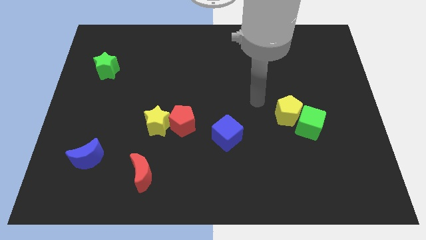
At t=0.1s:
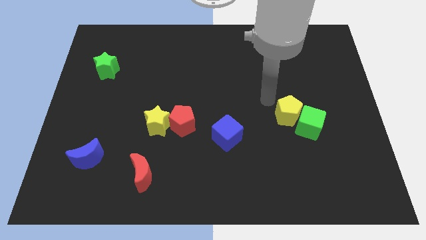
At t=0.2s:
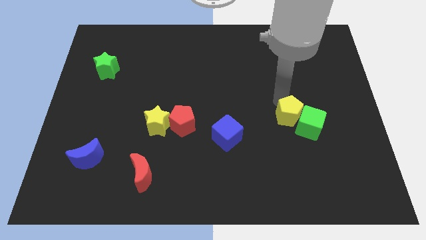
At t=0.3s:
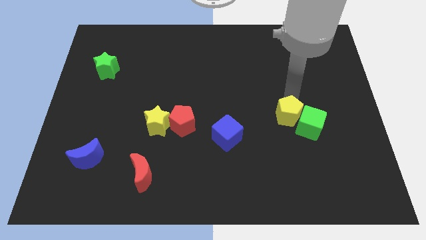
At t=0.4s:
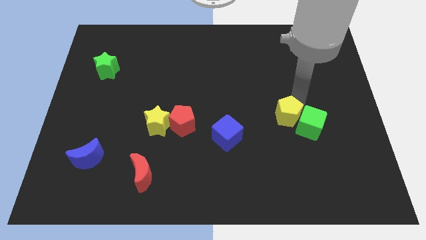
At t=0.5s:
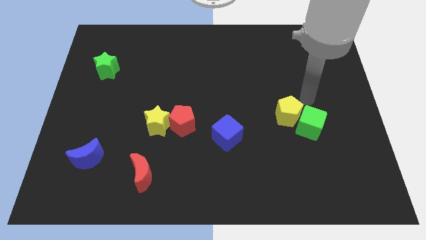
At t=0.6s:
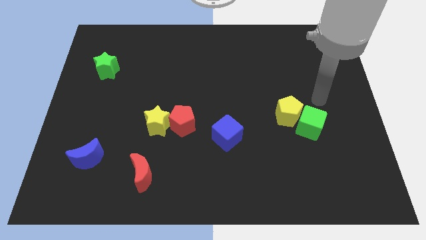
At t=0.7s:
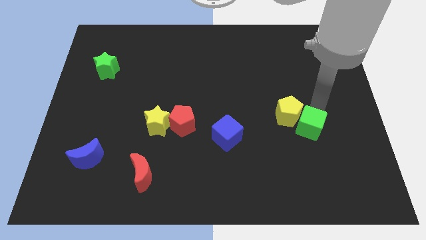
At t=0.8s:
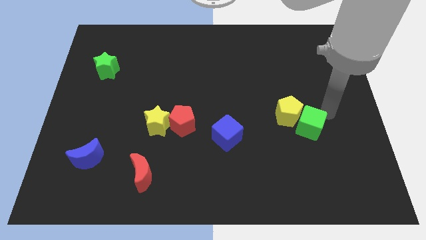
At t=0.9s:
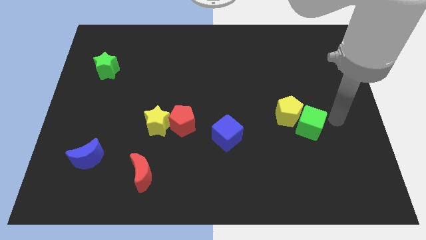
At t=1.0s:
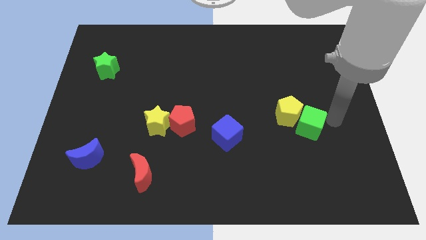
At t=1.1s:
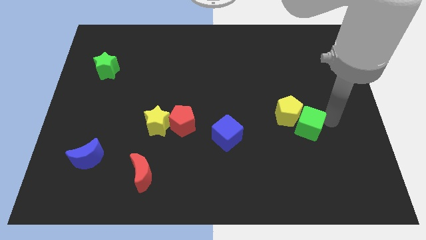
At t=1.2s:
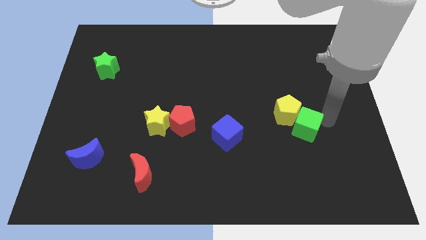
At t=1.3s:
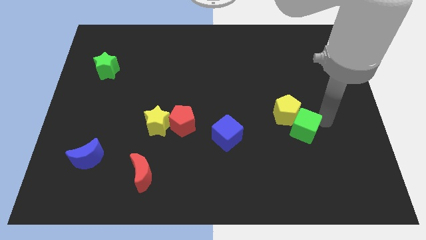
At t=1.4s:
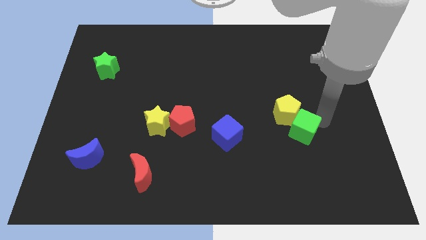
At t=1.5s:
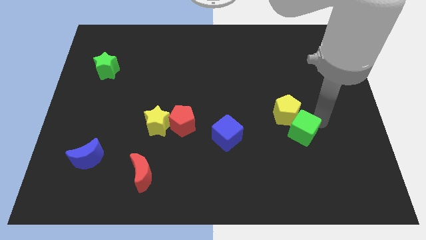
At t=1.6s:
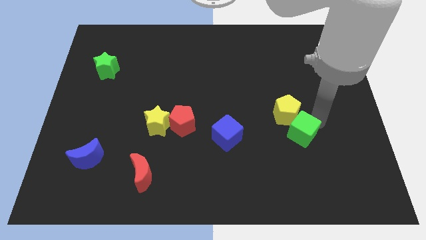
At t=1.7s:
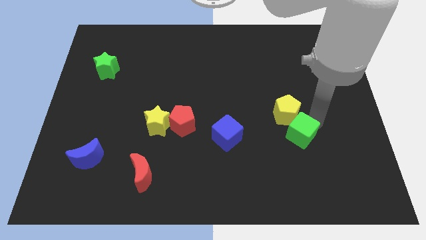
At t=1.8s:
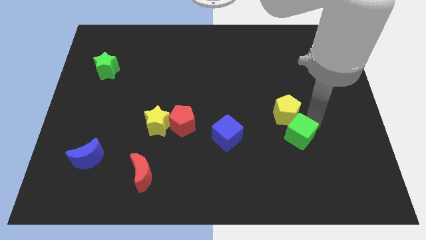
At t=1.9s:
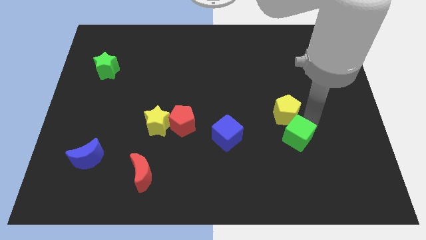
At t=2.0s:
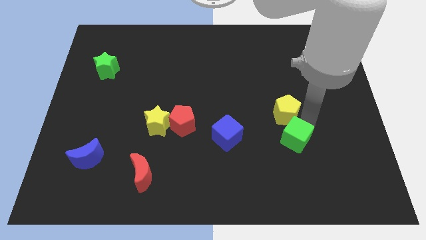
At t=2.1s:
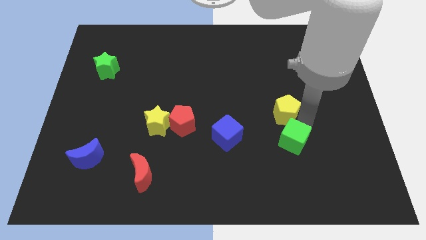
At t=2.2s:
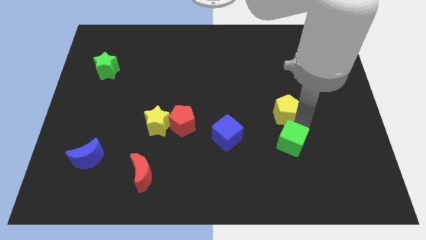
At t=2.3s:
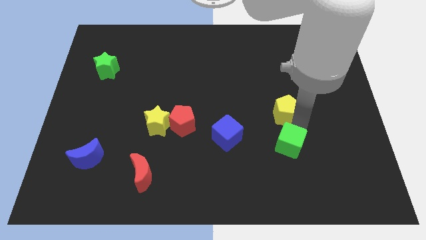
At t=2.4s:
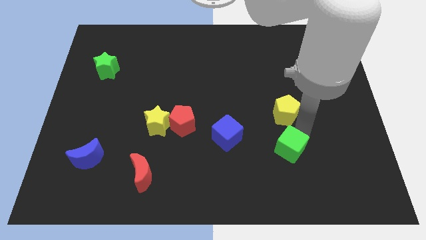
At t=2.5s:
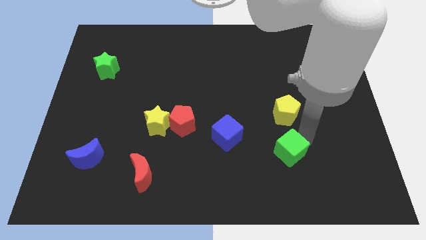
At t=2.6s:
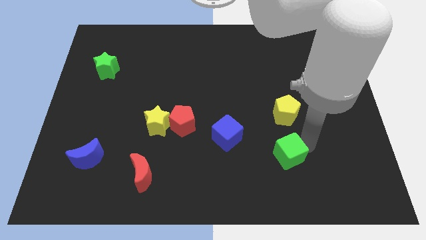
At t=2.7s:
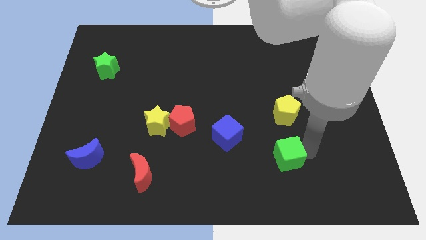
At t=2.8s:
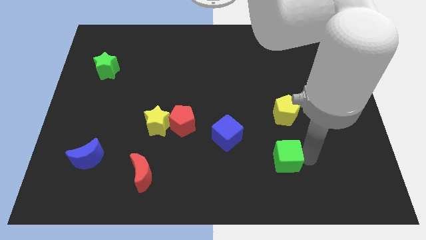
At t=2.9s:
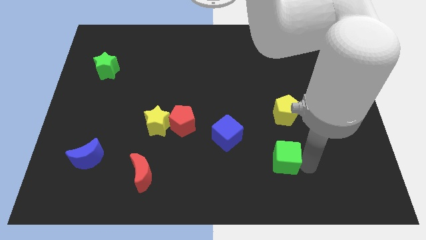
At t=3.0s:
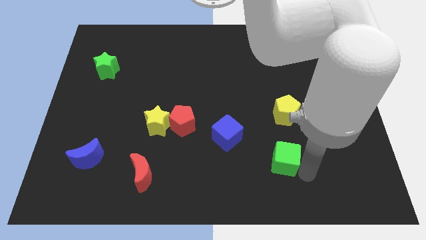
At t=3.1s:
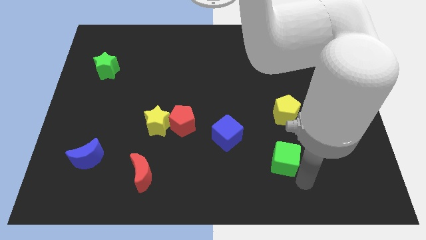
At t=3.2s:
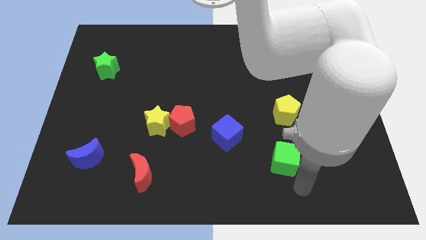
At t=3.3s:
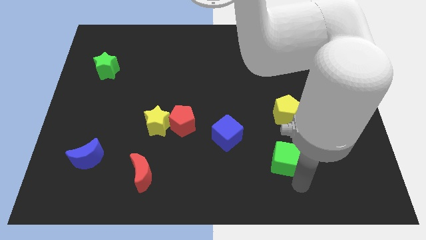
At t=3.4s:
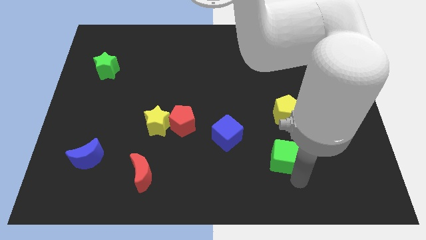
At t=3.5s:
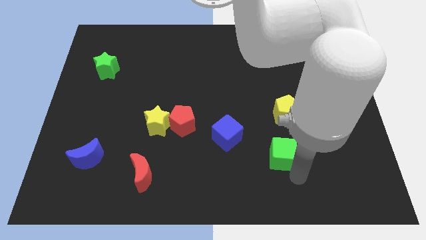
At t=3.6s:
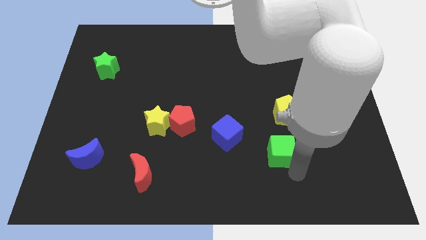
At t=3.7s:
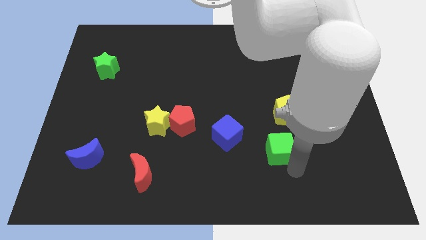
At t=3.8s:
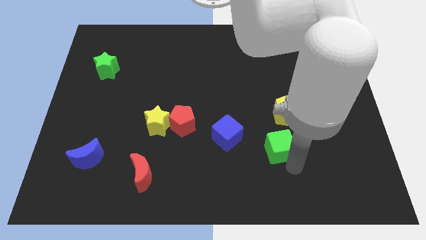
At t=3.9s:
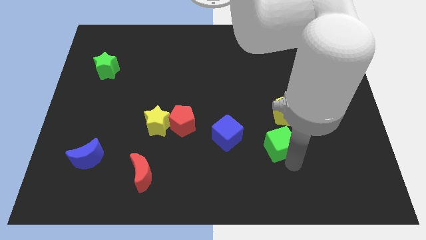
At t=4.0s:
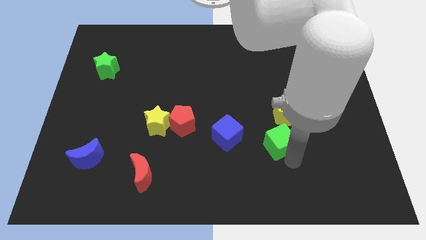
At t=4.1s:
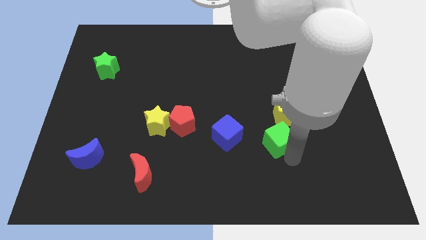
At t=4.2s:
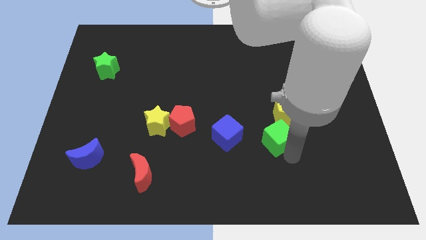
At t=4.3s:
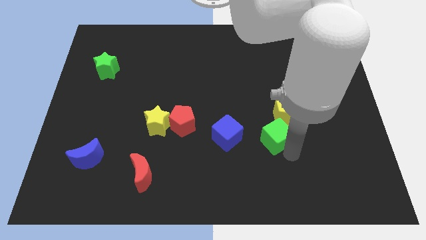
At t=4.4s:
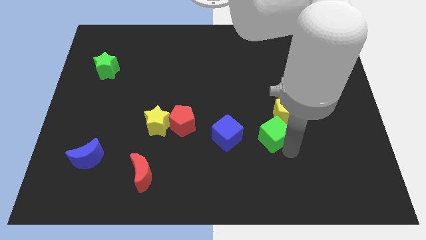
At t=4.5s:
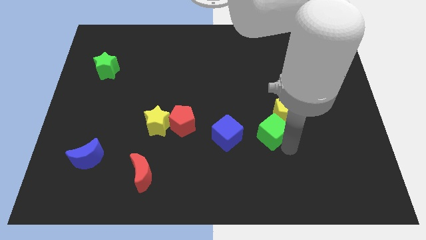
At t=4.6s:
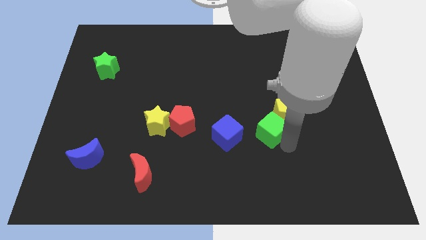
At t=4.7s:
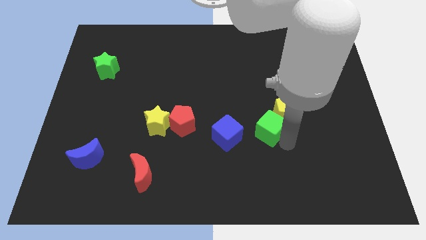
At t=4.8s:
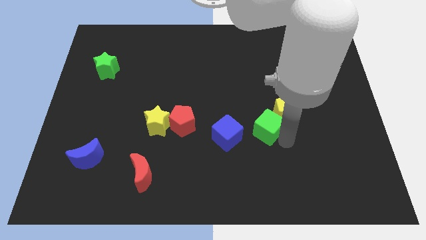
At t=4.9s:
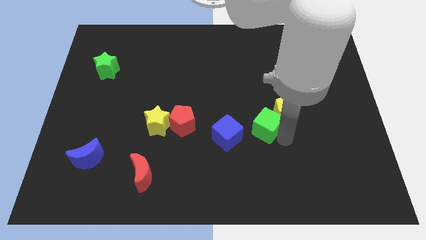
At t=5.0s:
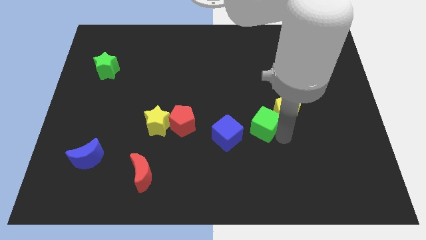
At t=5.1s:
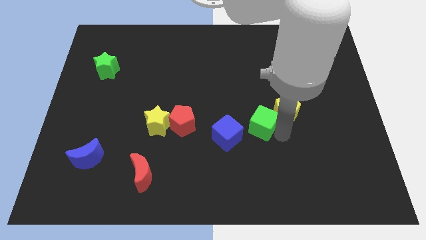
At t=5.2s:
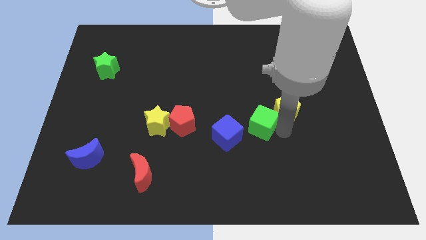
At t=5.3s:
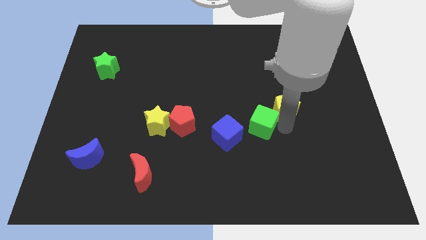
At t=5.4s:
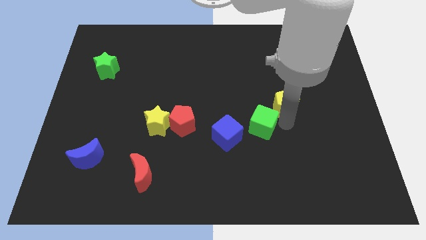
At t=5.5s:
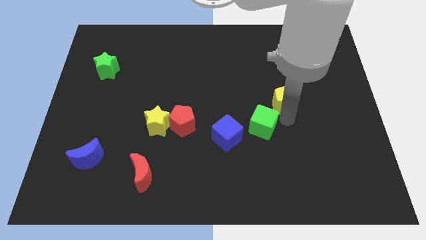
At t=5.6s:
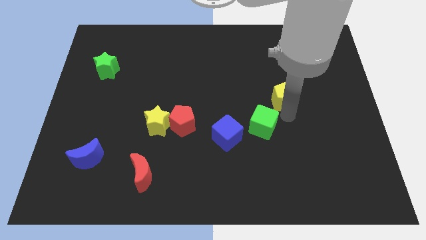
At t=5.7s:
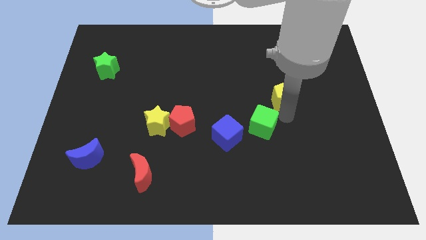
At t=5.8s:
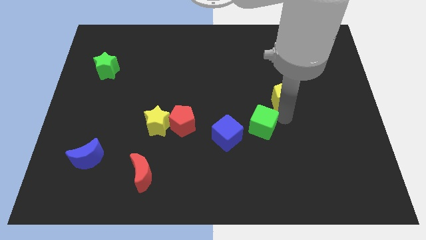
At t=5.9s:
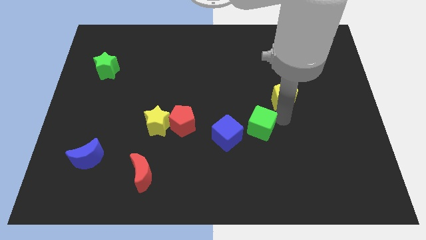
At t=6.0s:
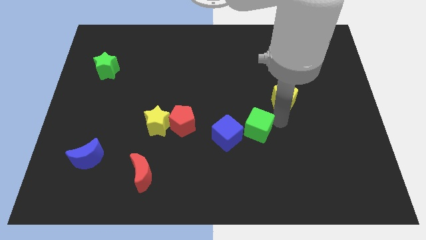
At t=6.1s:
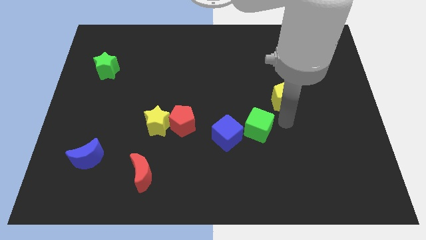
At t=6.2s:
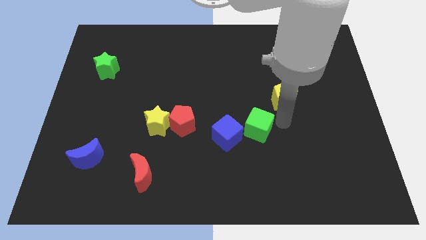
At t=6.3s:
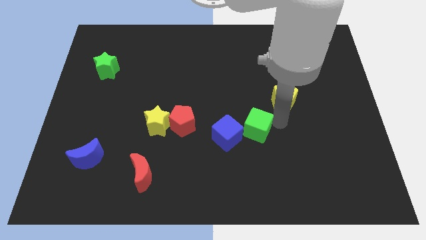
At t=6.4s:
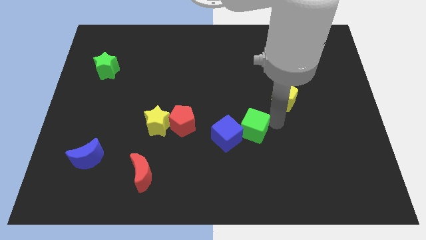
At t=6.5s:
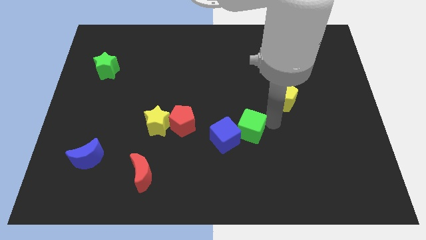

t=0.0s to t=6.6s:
slide the green cube towards the blue cube

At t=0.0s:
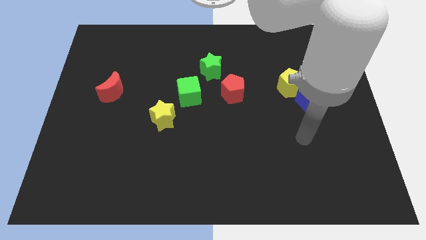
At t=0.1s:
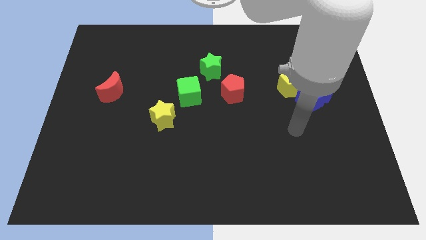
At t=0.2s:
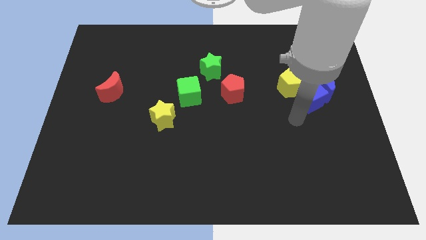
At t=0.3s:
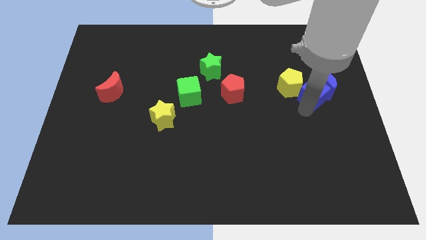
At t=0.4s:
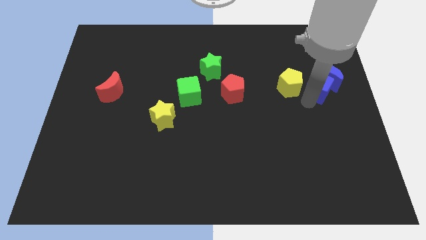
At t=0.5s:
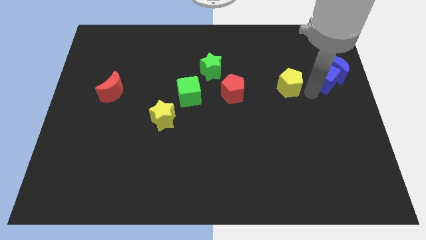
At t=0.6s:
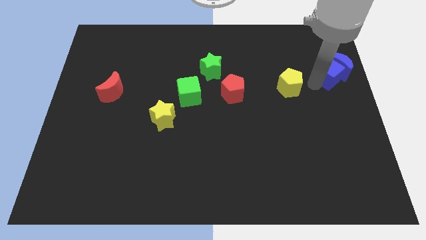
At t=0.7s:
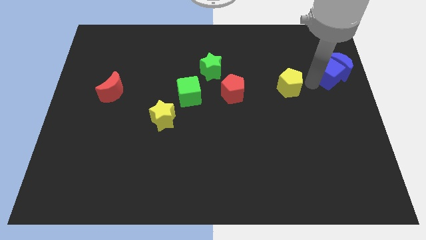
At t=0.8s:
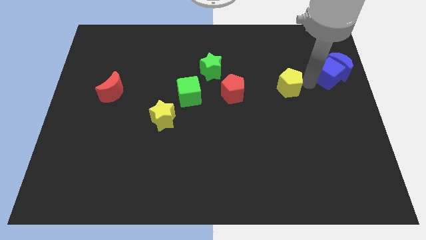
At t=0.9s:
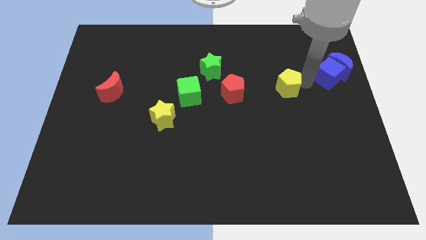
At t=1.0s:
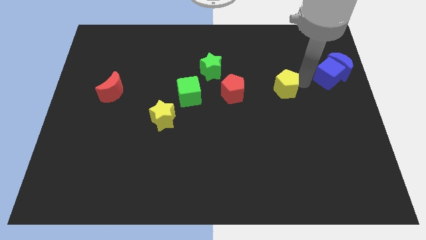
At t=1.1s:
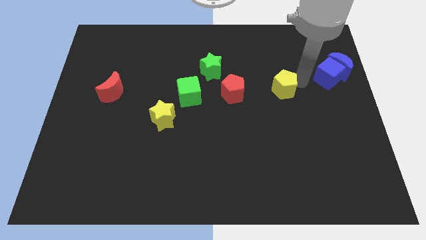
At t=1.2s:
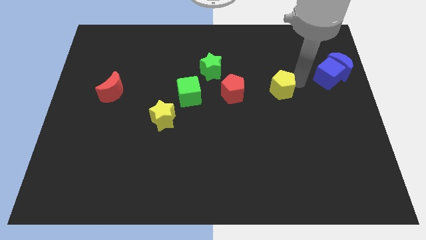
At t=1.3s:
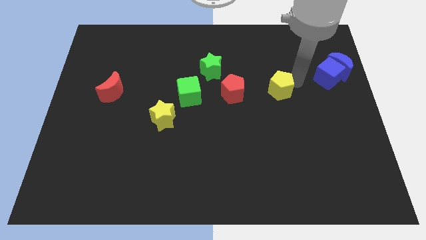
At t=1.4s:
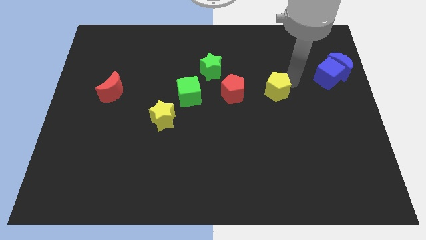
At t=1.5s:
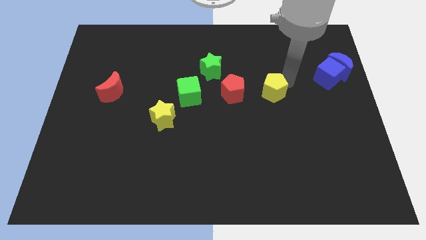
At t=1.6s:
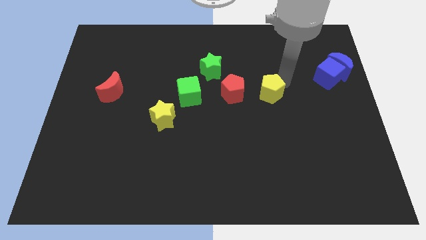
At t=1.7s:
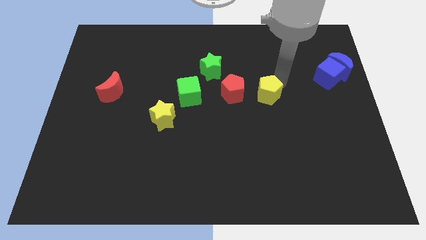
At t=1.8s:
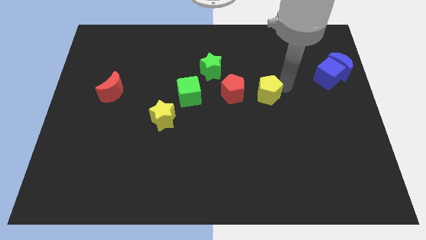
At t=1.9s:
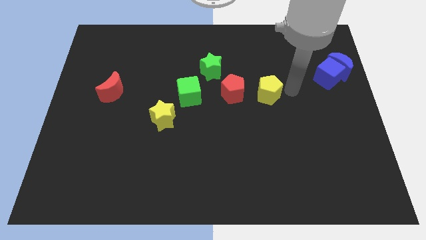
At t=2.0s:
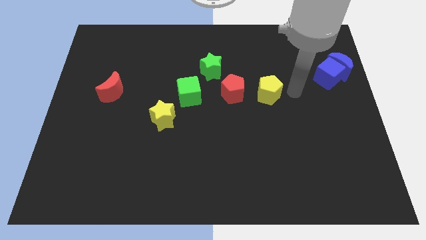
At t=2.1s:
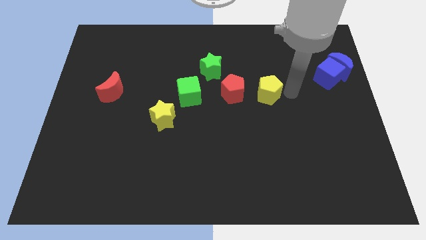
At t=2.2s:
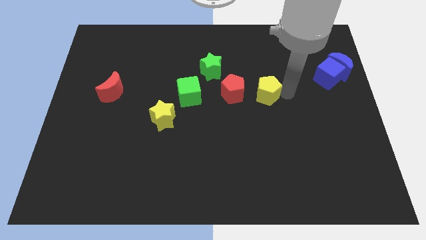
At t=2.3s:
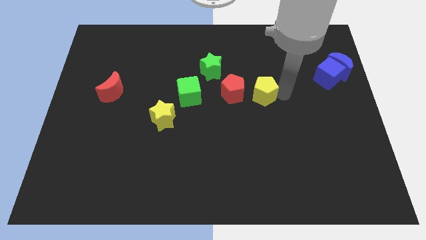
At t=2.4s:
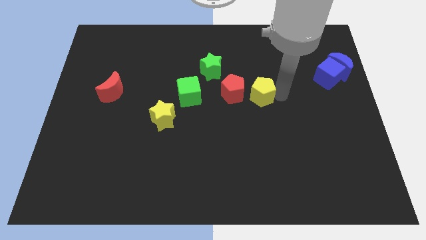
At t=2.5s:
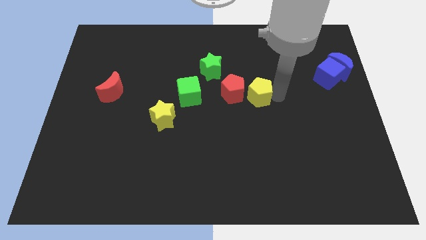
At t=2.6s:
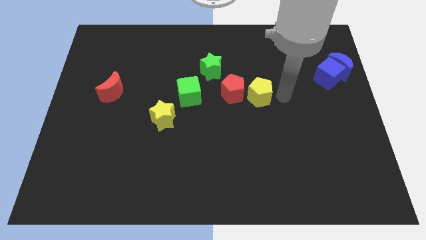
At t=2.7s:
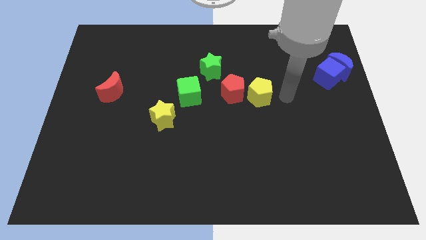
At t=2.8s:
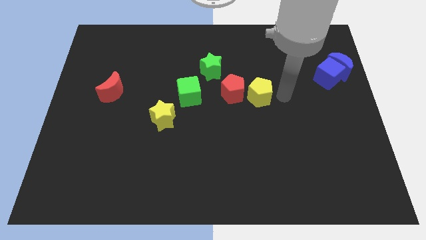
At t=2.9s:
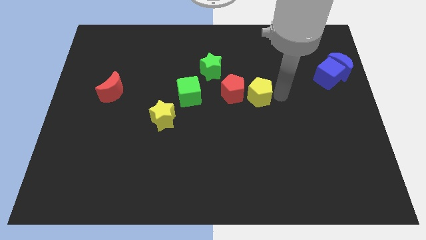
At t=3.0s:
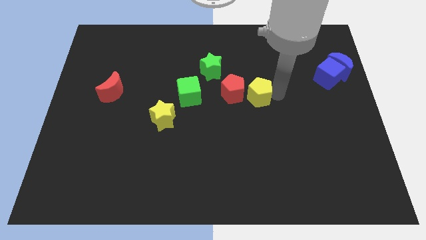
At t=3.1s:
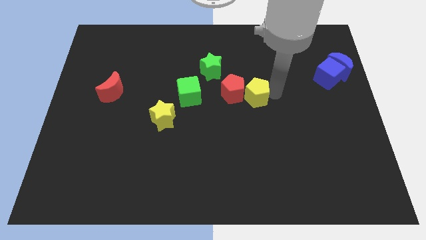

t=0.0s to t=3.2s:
slide the yellow pentagon towards the red pentagon
